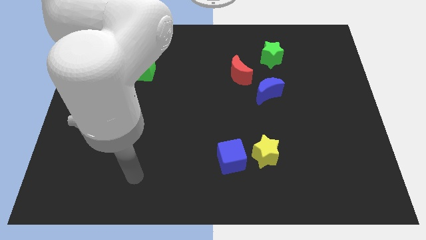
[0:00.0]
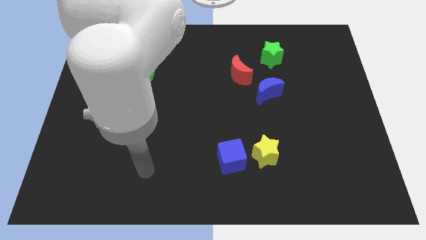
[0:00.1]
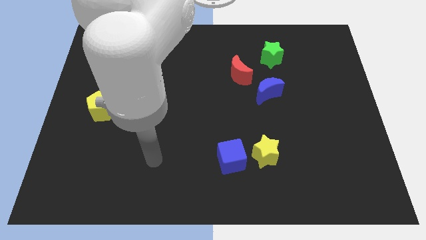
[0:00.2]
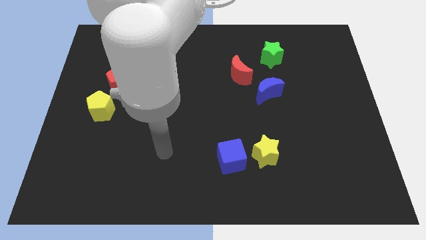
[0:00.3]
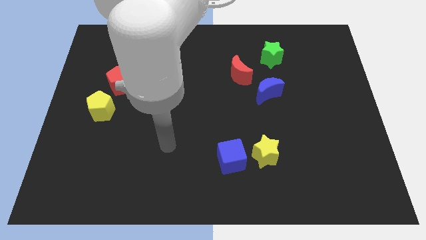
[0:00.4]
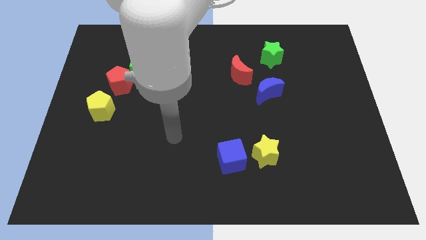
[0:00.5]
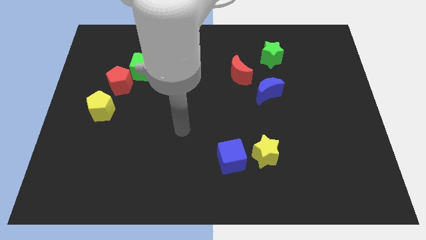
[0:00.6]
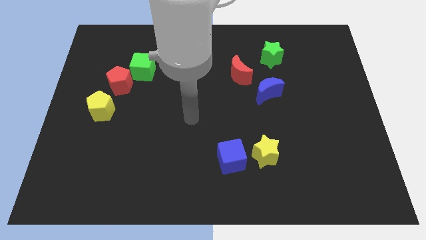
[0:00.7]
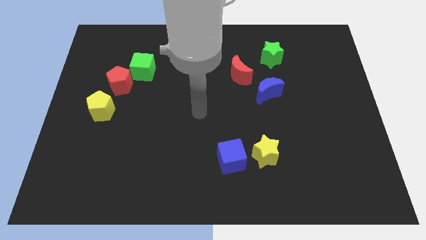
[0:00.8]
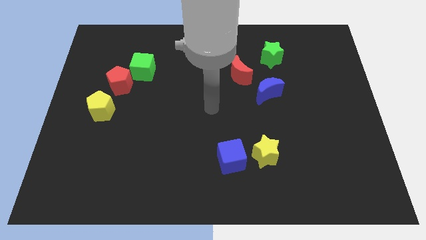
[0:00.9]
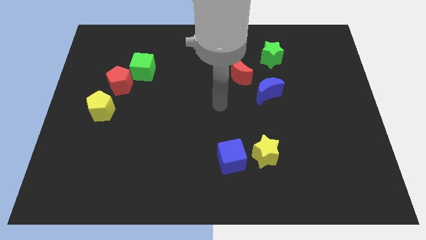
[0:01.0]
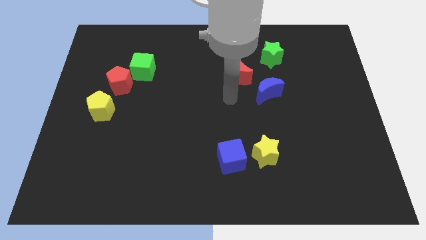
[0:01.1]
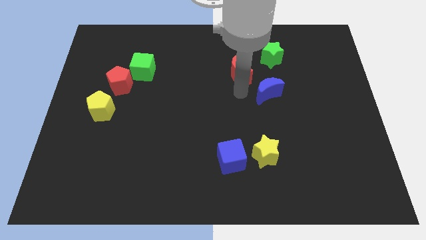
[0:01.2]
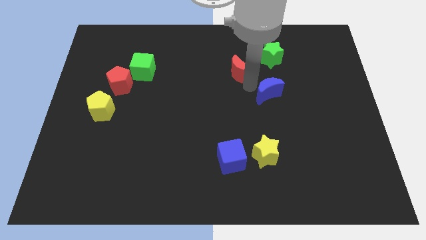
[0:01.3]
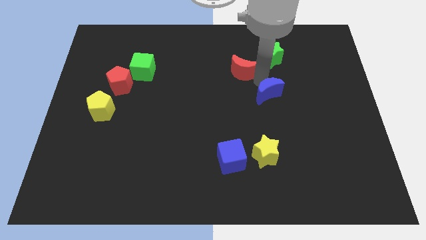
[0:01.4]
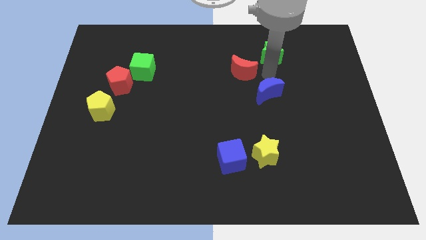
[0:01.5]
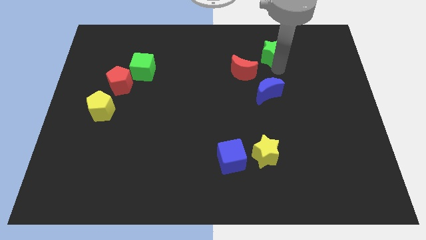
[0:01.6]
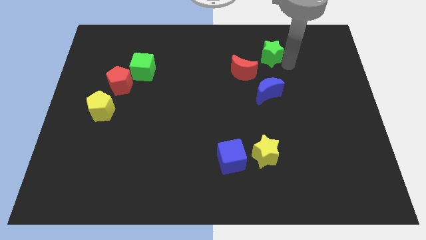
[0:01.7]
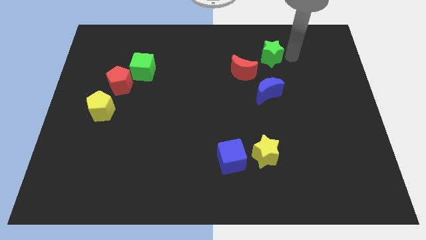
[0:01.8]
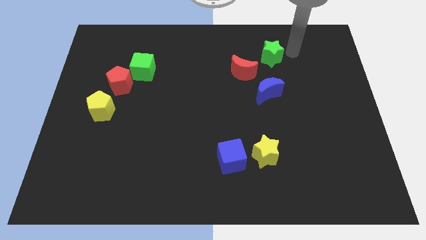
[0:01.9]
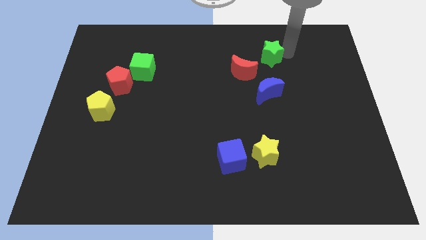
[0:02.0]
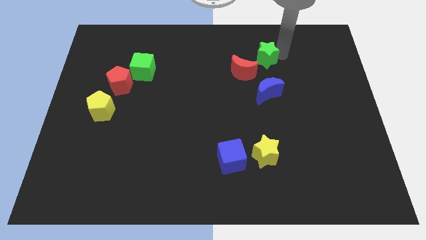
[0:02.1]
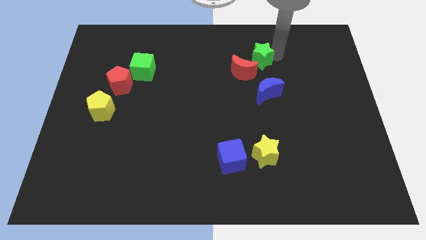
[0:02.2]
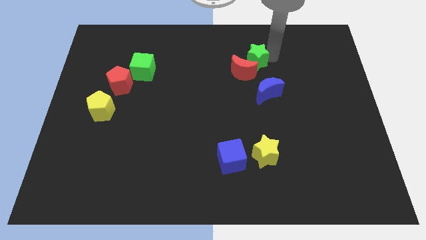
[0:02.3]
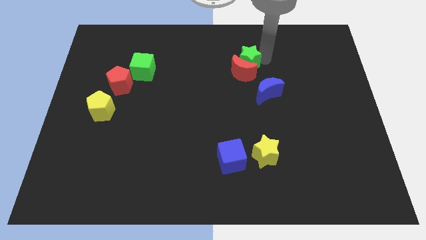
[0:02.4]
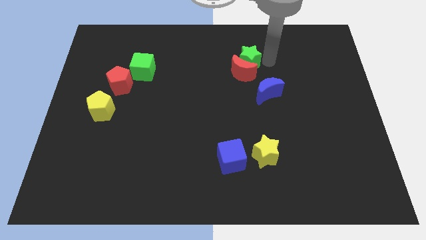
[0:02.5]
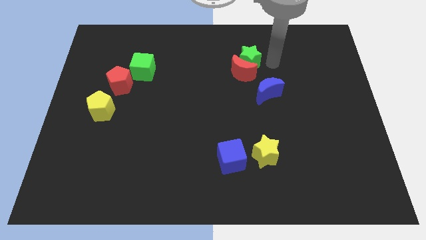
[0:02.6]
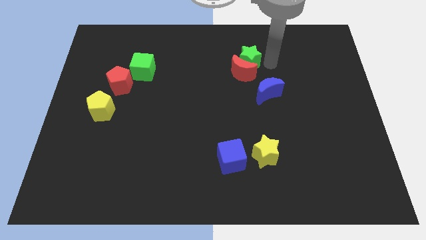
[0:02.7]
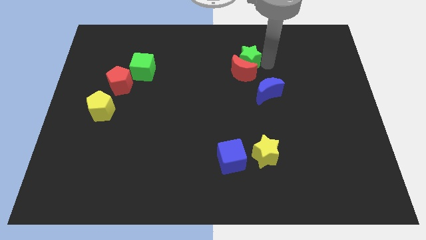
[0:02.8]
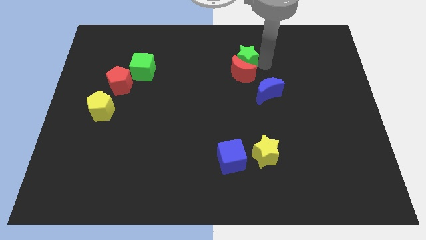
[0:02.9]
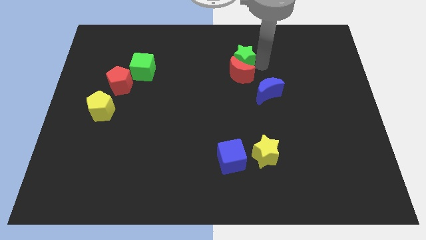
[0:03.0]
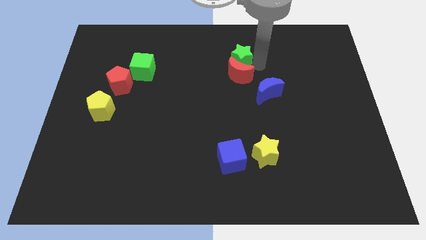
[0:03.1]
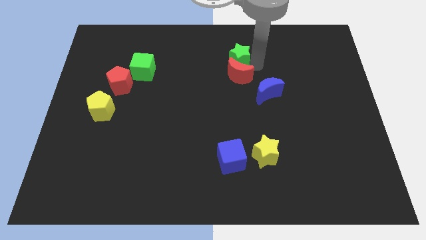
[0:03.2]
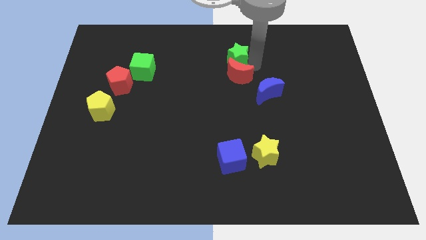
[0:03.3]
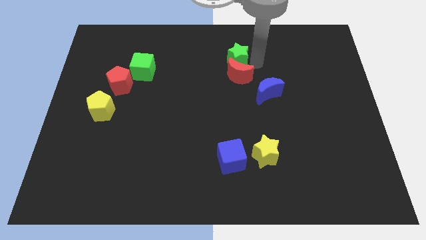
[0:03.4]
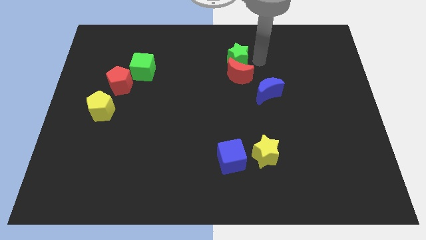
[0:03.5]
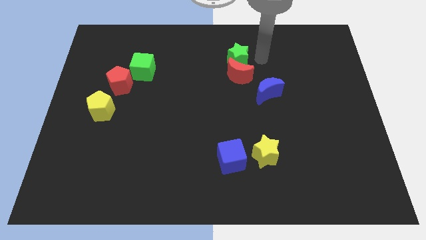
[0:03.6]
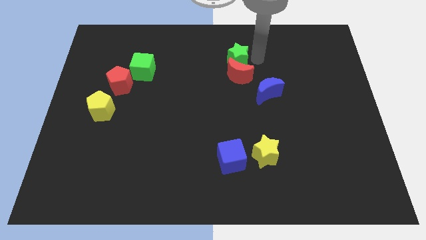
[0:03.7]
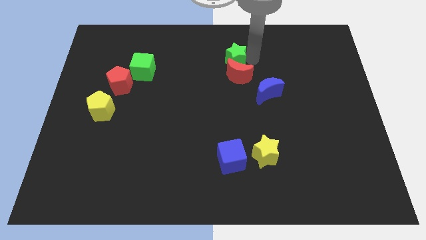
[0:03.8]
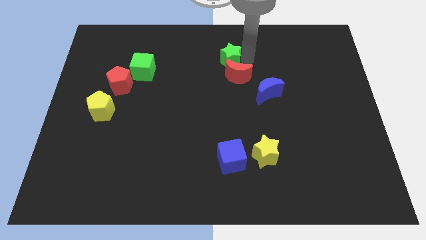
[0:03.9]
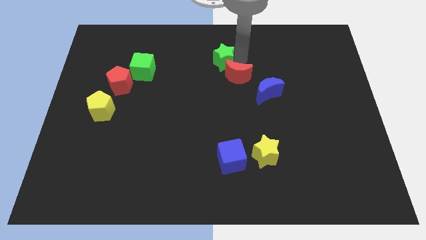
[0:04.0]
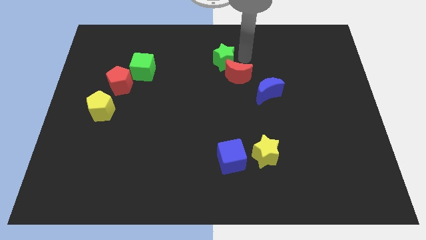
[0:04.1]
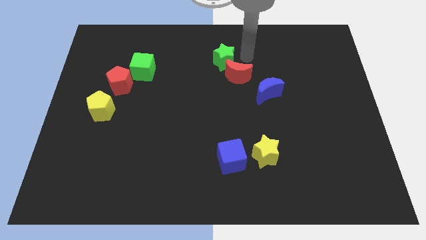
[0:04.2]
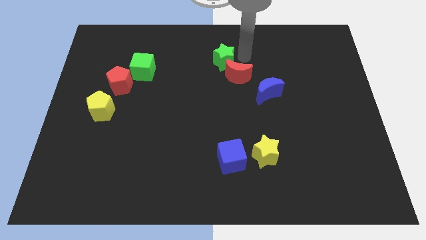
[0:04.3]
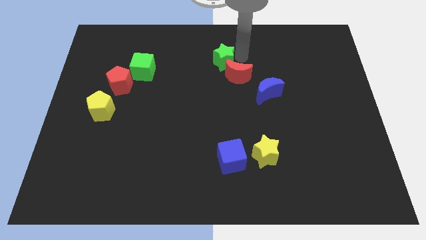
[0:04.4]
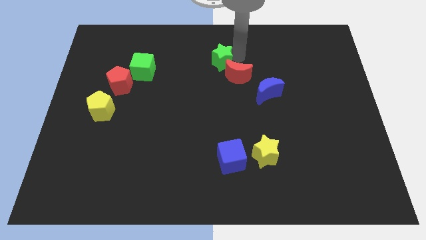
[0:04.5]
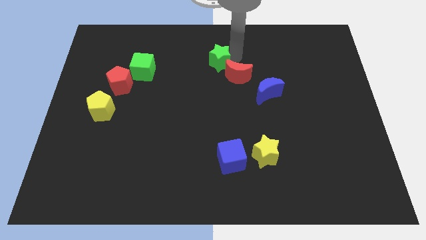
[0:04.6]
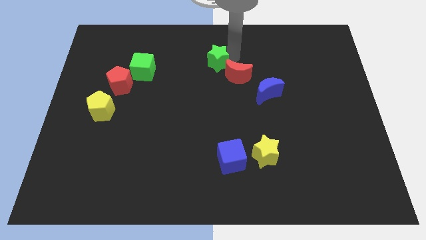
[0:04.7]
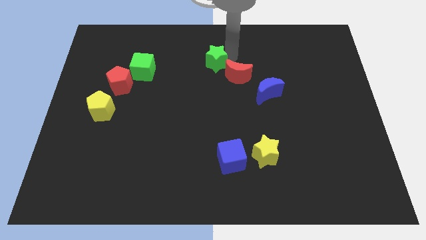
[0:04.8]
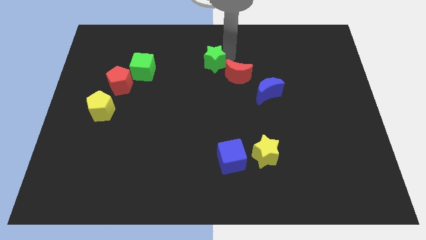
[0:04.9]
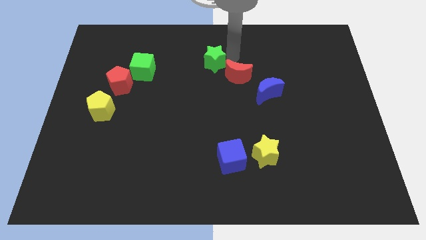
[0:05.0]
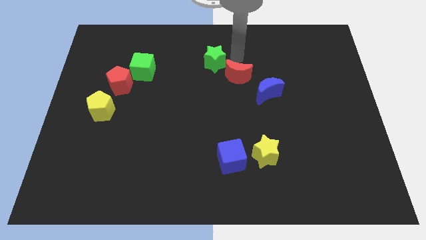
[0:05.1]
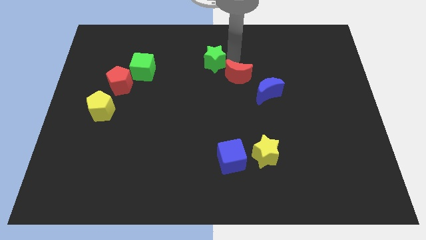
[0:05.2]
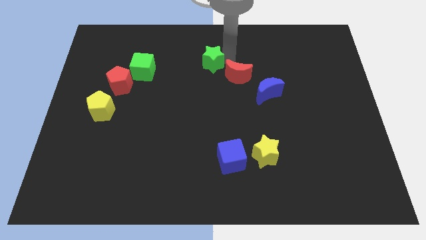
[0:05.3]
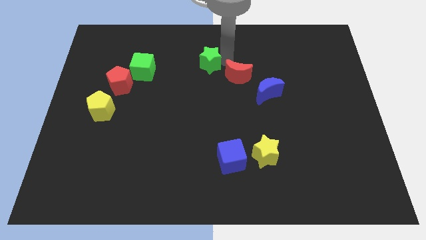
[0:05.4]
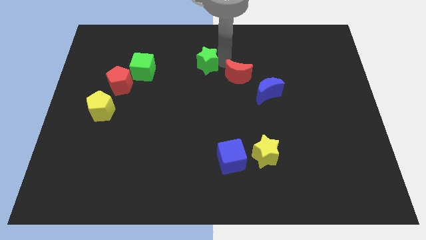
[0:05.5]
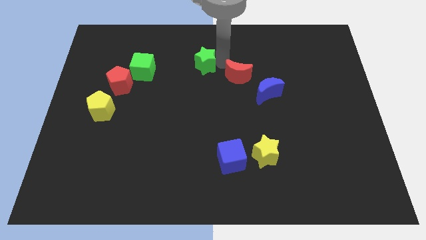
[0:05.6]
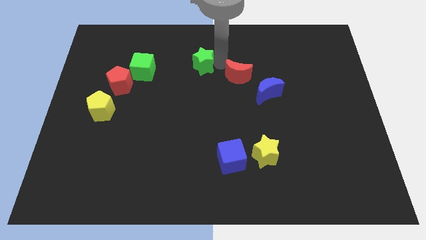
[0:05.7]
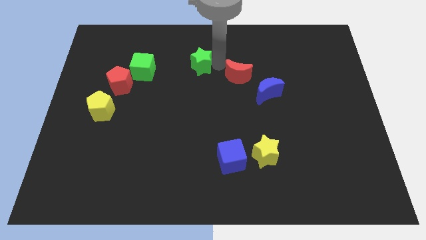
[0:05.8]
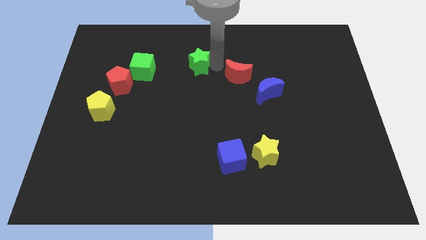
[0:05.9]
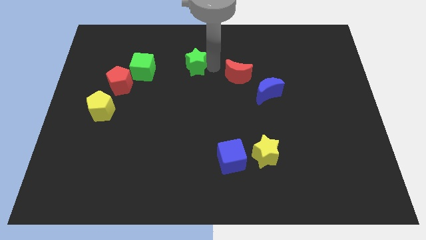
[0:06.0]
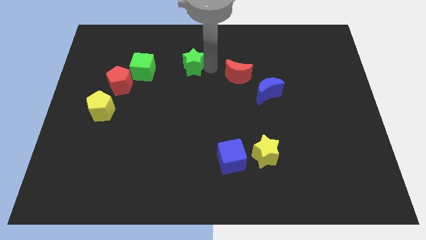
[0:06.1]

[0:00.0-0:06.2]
move the green star to the left

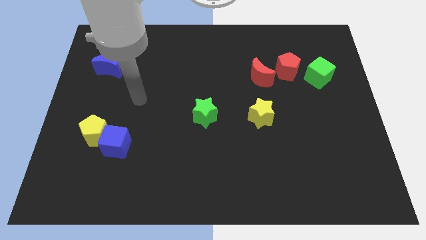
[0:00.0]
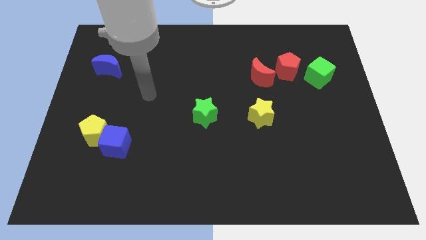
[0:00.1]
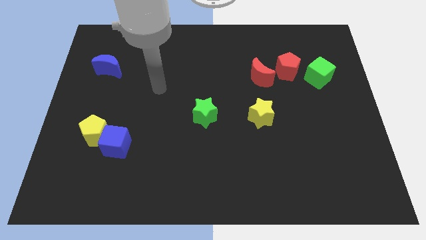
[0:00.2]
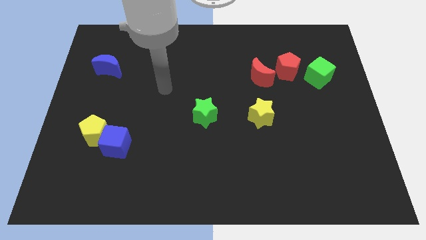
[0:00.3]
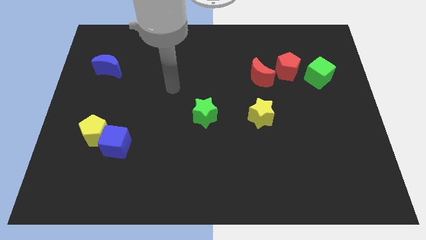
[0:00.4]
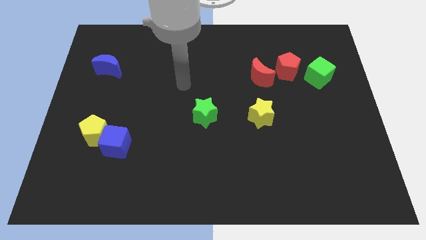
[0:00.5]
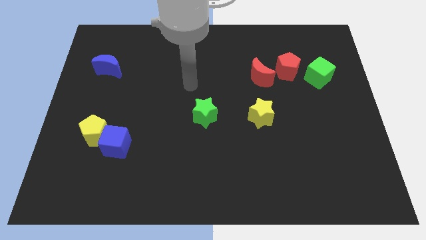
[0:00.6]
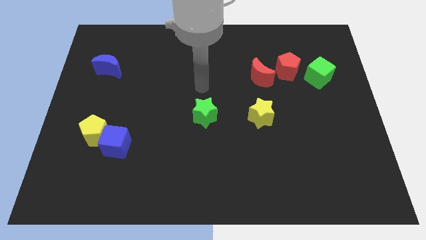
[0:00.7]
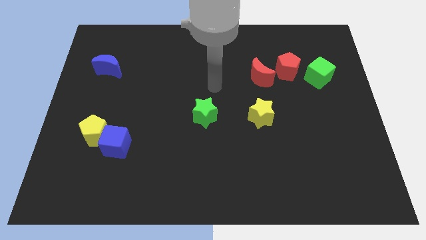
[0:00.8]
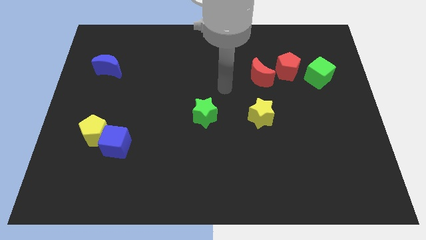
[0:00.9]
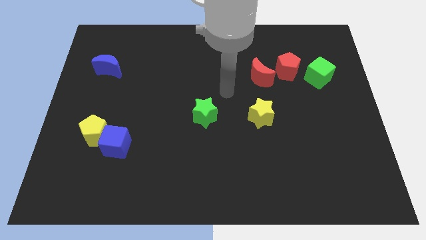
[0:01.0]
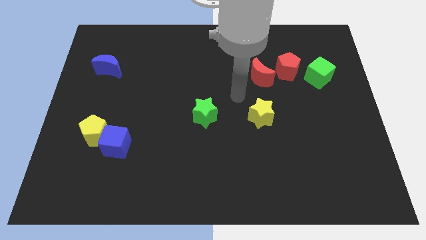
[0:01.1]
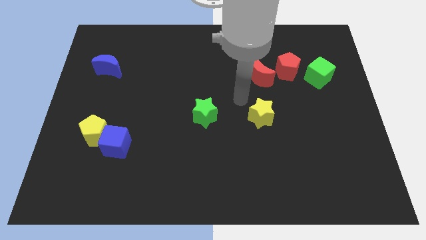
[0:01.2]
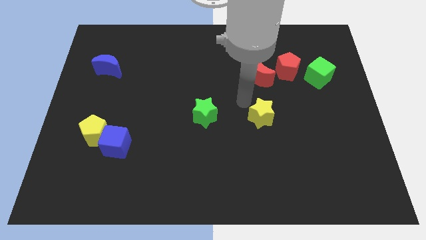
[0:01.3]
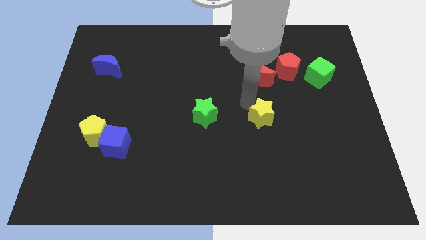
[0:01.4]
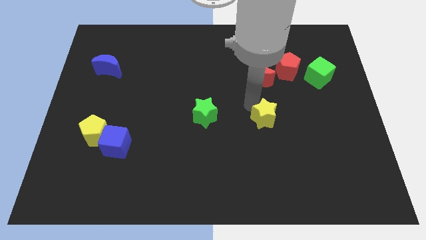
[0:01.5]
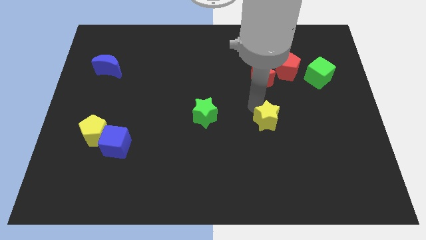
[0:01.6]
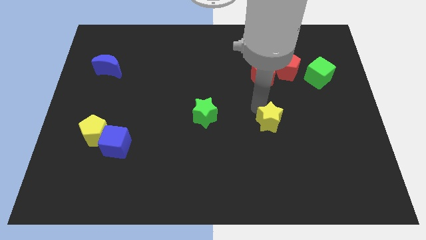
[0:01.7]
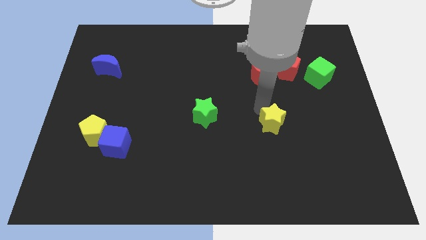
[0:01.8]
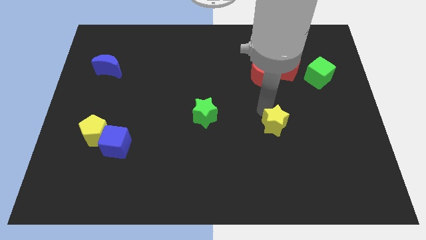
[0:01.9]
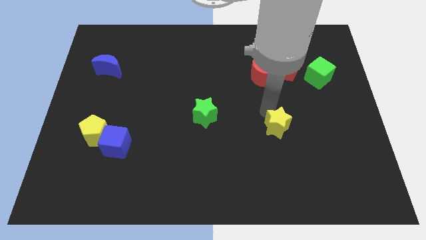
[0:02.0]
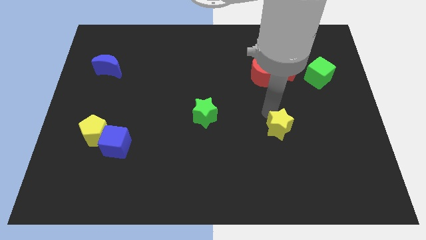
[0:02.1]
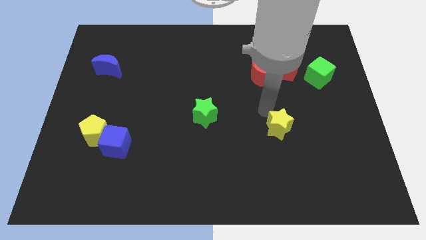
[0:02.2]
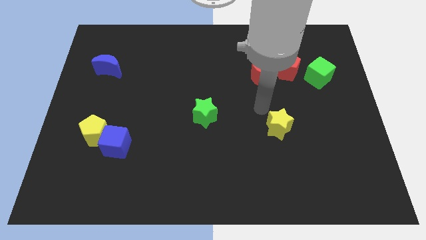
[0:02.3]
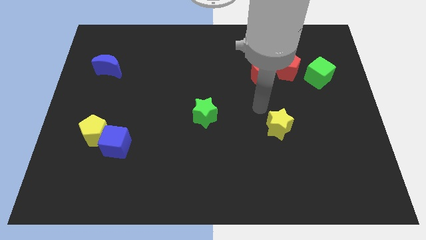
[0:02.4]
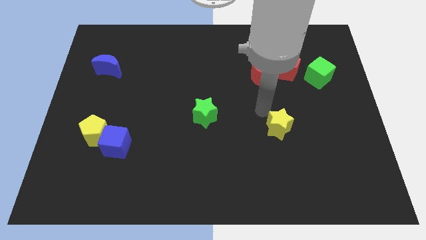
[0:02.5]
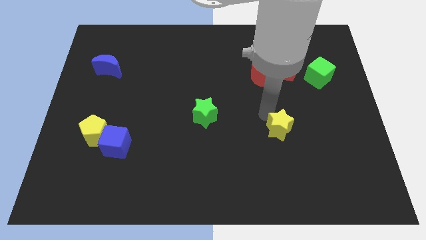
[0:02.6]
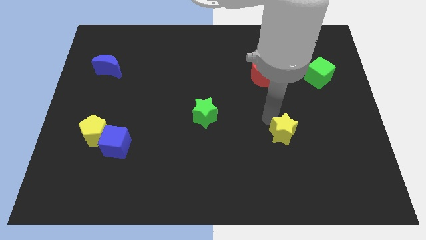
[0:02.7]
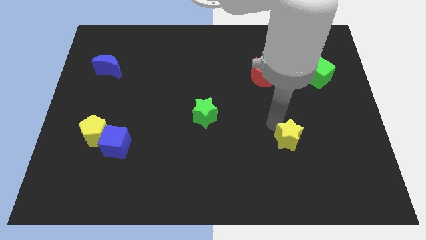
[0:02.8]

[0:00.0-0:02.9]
slightly move the yellow star down and then right
